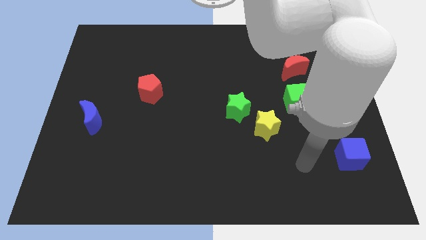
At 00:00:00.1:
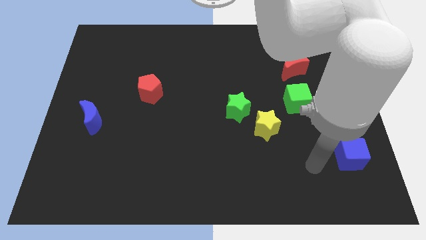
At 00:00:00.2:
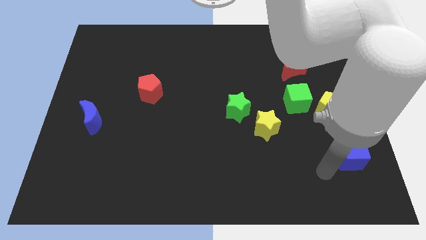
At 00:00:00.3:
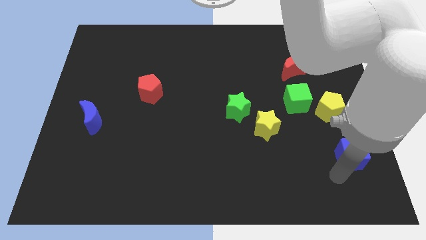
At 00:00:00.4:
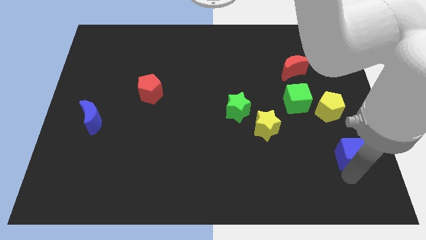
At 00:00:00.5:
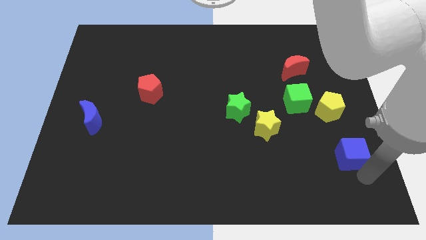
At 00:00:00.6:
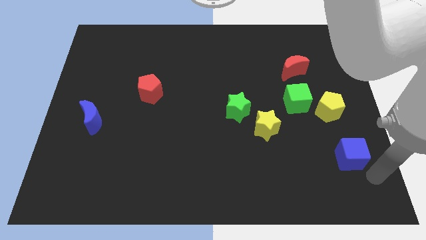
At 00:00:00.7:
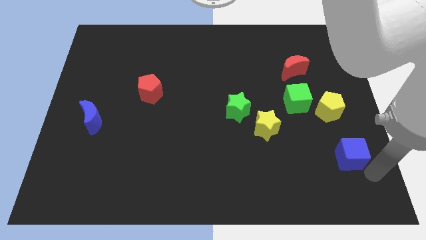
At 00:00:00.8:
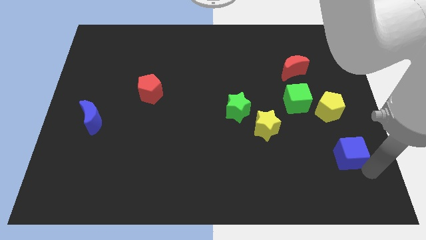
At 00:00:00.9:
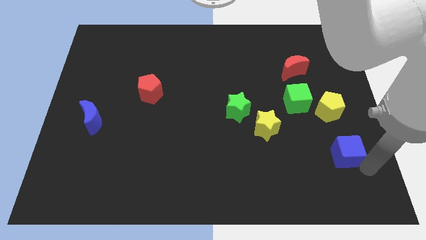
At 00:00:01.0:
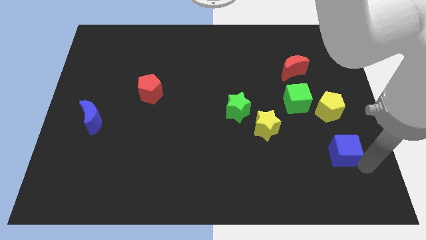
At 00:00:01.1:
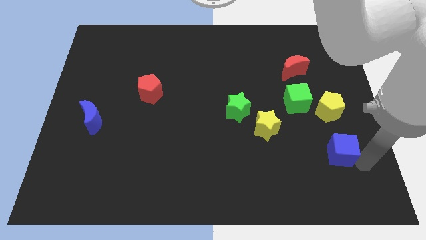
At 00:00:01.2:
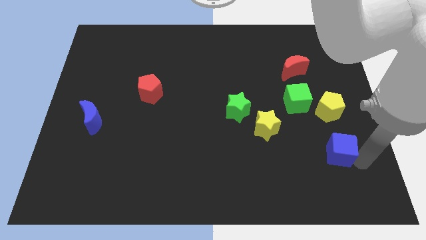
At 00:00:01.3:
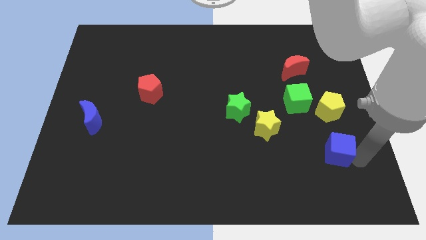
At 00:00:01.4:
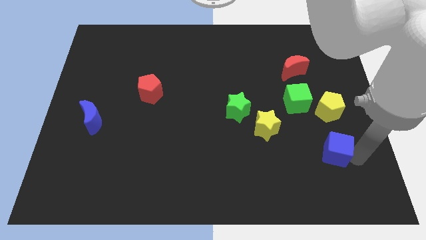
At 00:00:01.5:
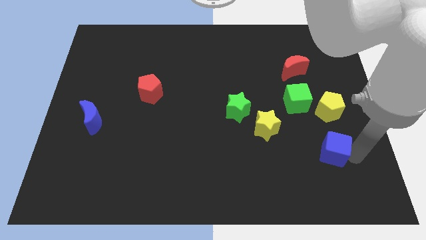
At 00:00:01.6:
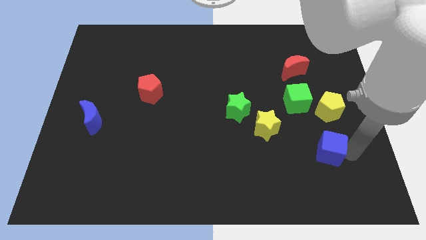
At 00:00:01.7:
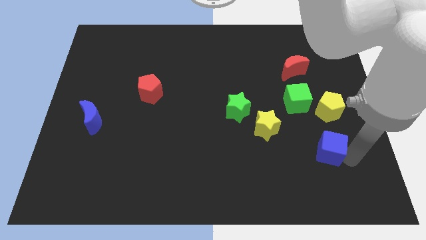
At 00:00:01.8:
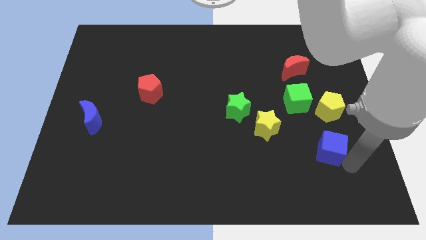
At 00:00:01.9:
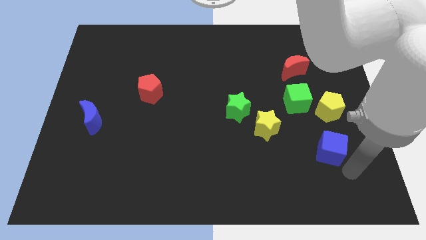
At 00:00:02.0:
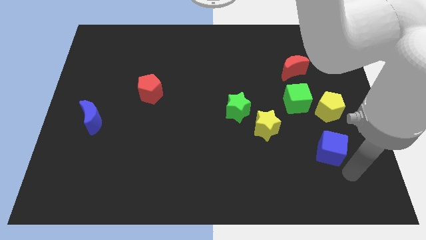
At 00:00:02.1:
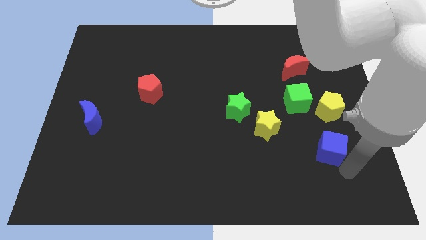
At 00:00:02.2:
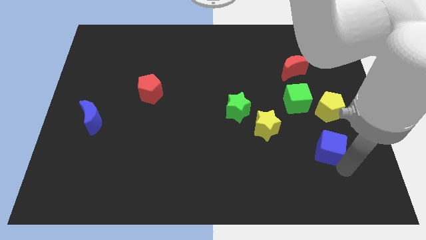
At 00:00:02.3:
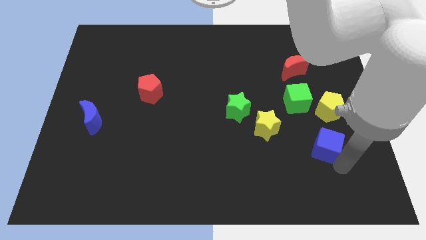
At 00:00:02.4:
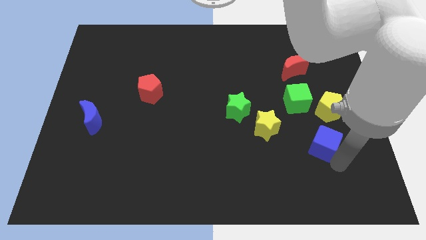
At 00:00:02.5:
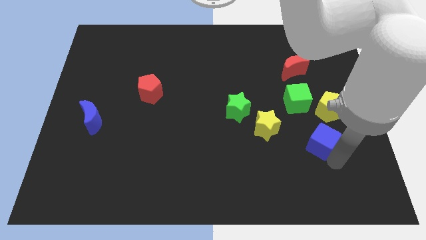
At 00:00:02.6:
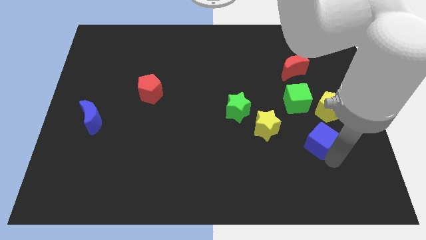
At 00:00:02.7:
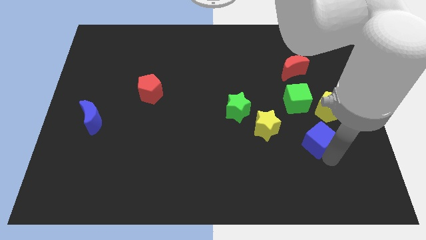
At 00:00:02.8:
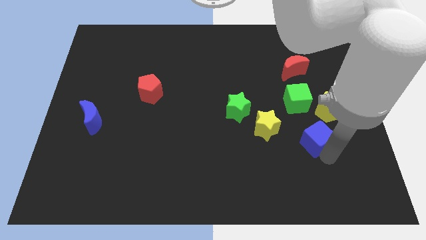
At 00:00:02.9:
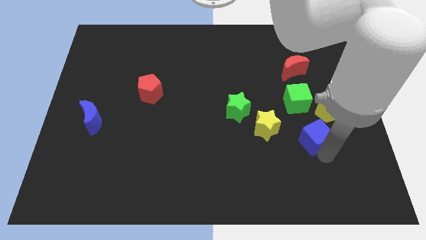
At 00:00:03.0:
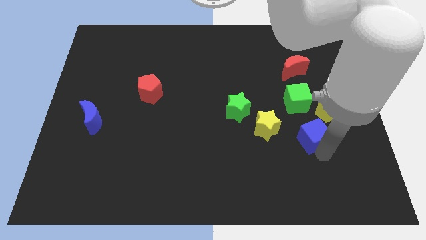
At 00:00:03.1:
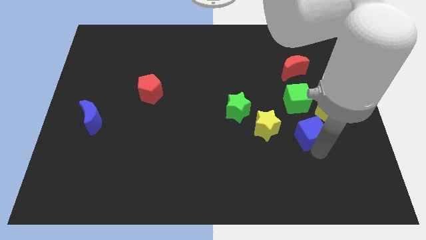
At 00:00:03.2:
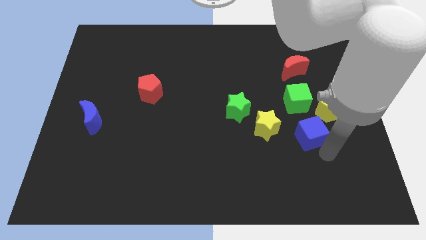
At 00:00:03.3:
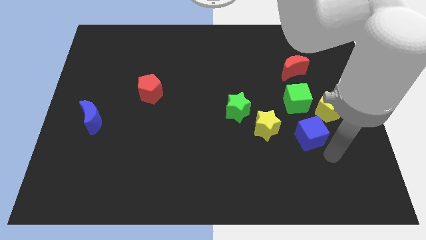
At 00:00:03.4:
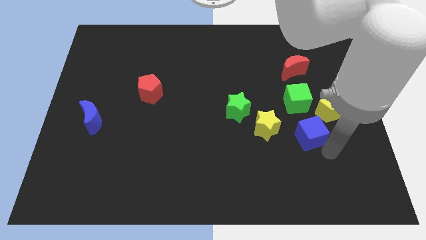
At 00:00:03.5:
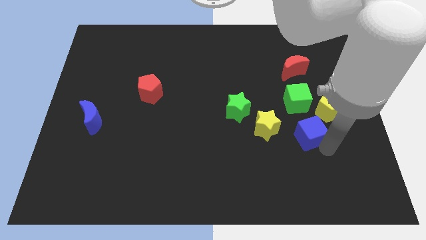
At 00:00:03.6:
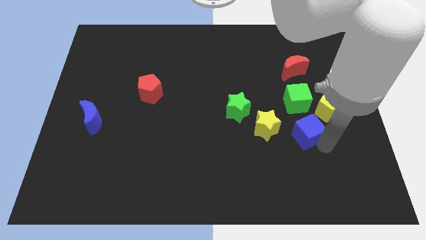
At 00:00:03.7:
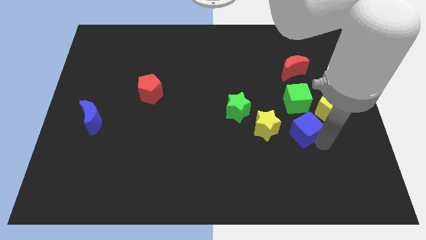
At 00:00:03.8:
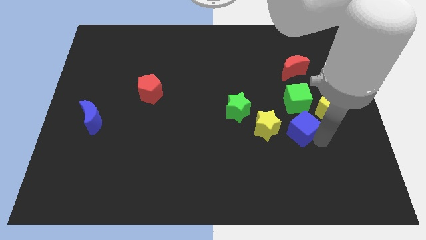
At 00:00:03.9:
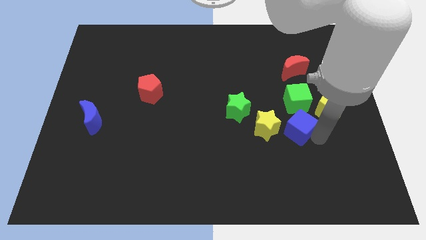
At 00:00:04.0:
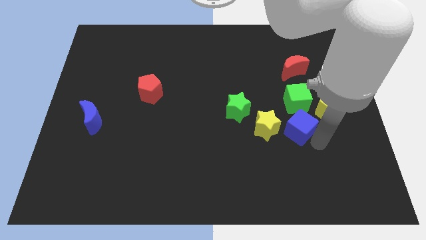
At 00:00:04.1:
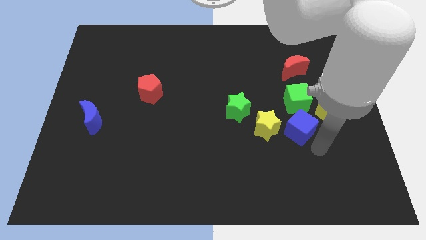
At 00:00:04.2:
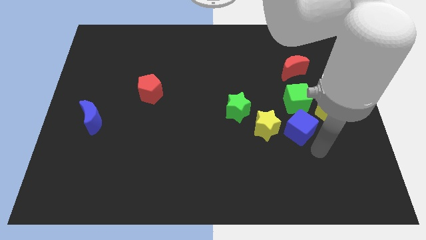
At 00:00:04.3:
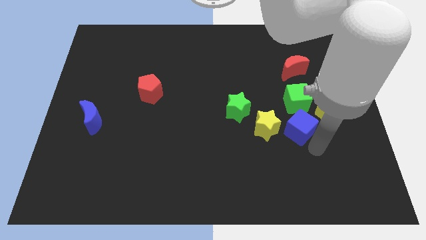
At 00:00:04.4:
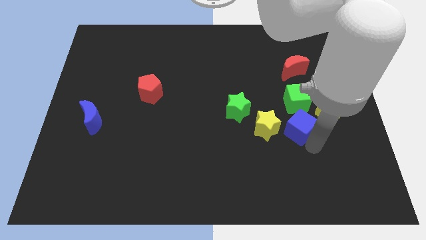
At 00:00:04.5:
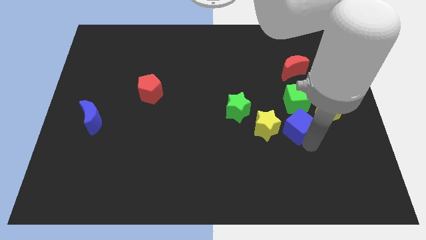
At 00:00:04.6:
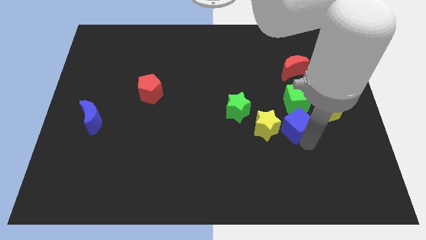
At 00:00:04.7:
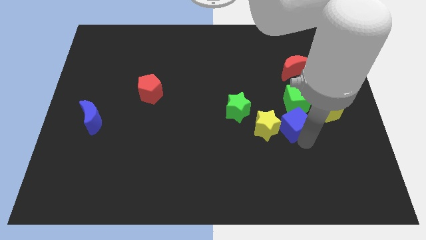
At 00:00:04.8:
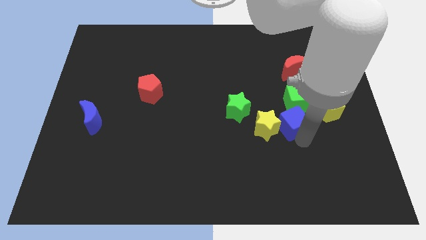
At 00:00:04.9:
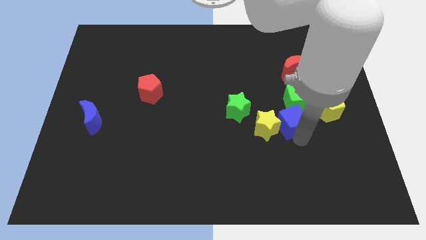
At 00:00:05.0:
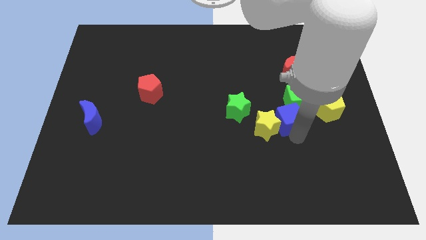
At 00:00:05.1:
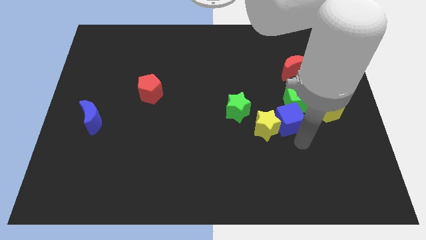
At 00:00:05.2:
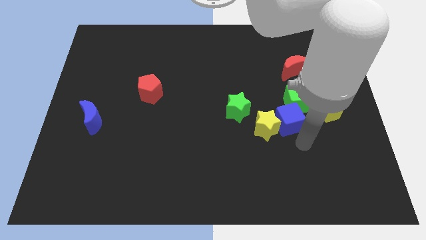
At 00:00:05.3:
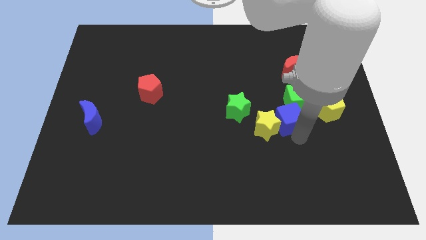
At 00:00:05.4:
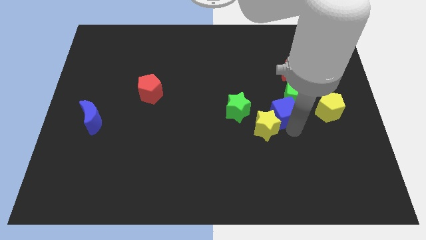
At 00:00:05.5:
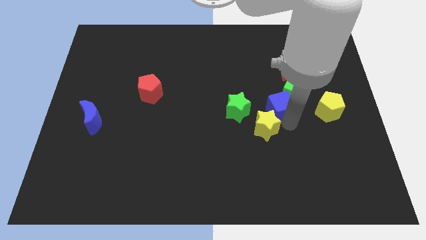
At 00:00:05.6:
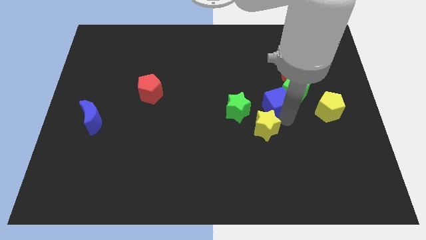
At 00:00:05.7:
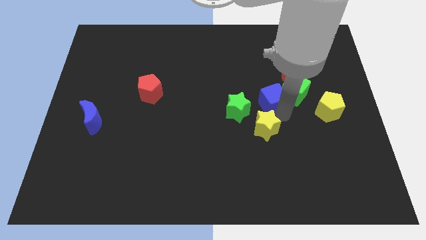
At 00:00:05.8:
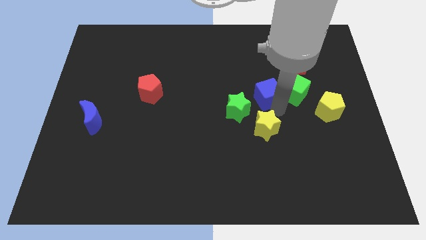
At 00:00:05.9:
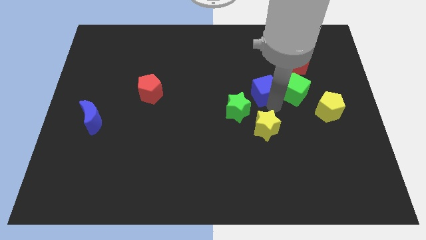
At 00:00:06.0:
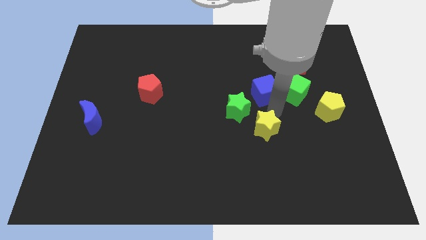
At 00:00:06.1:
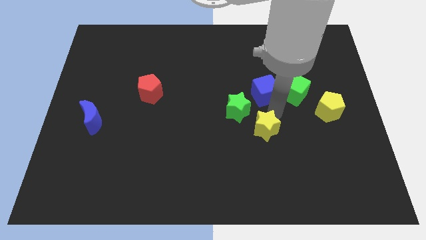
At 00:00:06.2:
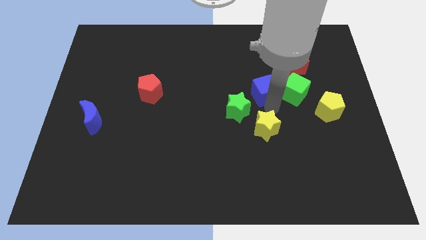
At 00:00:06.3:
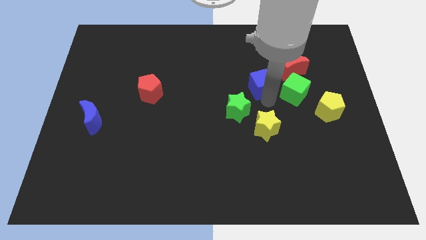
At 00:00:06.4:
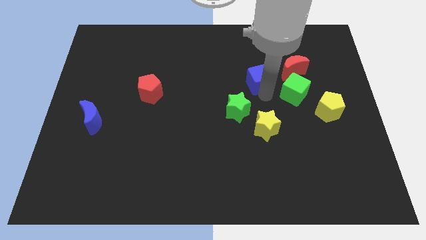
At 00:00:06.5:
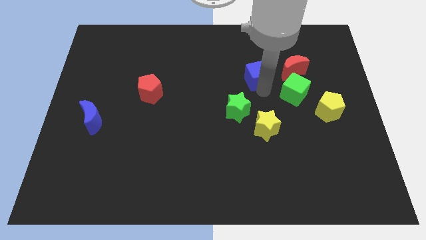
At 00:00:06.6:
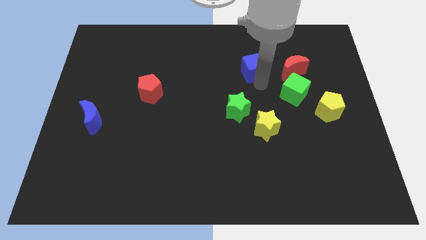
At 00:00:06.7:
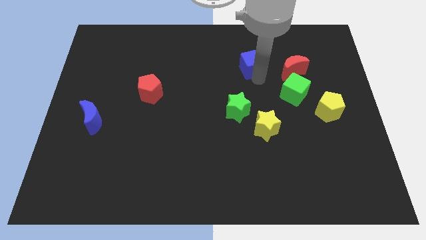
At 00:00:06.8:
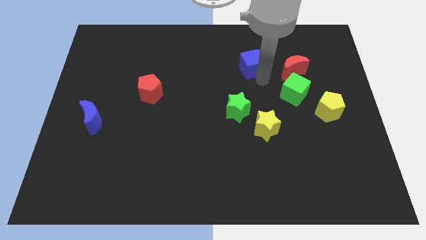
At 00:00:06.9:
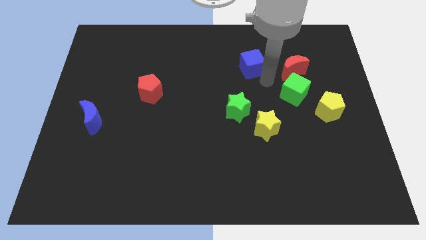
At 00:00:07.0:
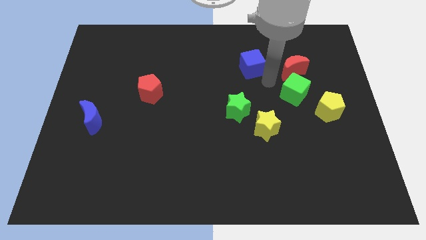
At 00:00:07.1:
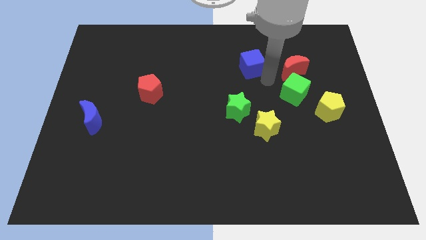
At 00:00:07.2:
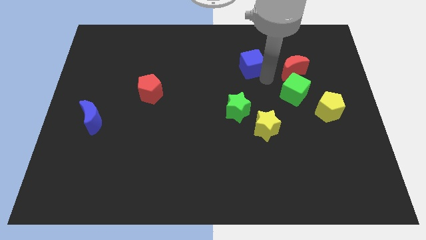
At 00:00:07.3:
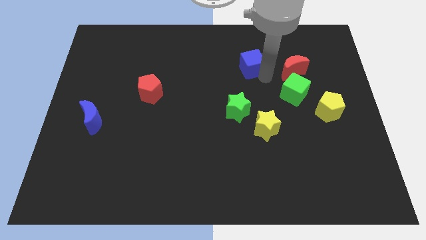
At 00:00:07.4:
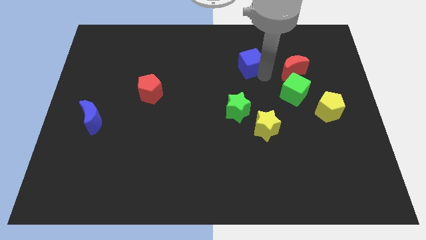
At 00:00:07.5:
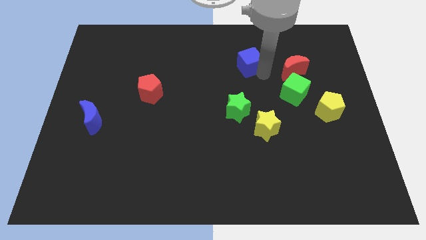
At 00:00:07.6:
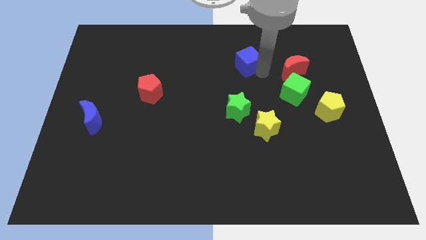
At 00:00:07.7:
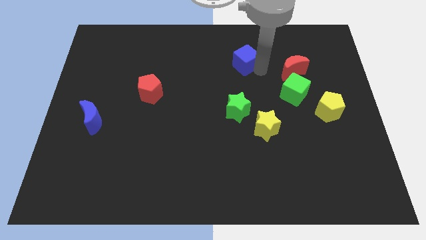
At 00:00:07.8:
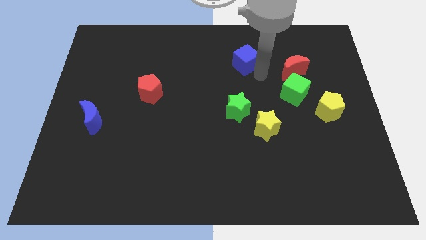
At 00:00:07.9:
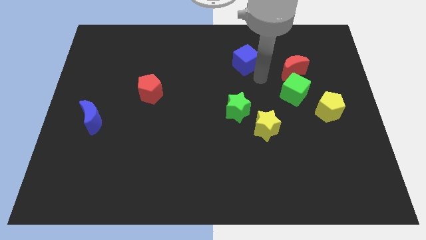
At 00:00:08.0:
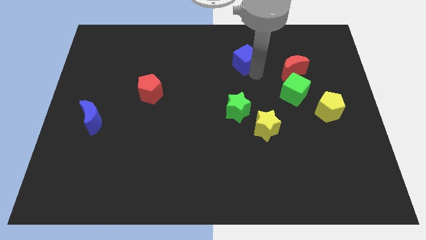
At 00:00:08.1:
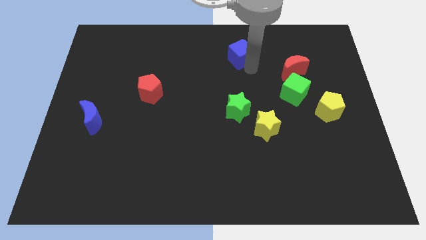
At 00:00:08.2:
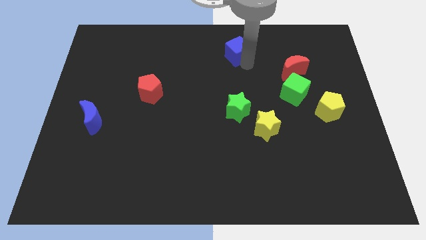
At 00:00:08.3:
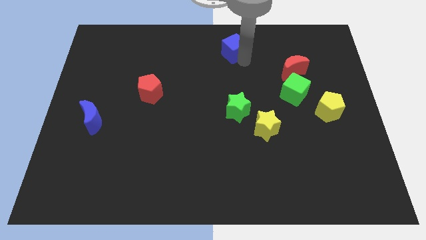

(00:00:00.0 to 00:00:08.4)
put the blue cube to the top
